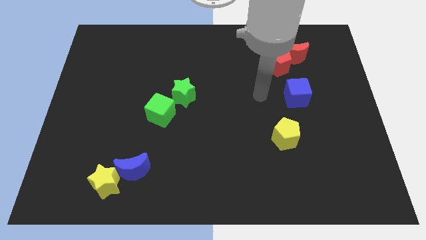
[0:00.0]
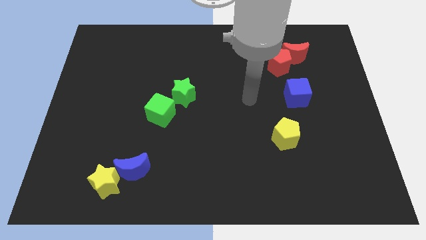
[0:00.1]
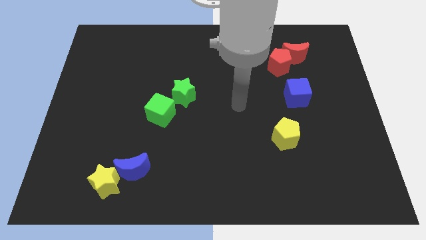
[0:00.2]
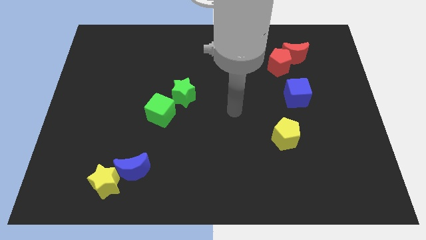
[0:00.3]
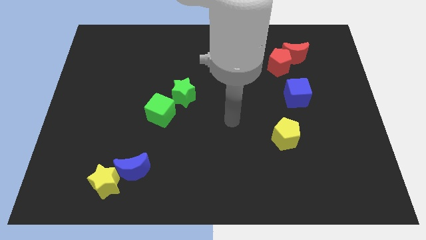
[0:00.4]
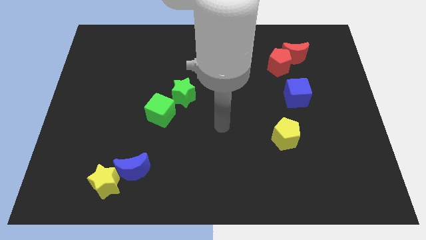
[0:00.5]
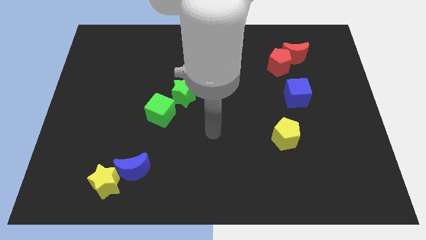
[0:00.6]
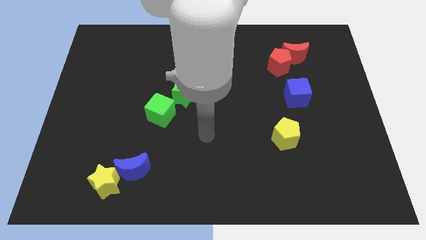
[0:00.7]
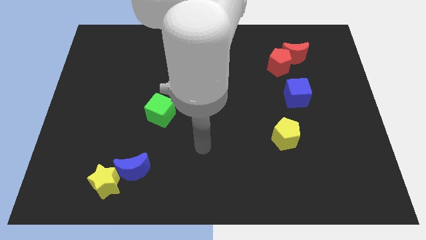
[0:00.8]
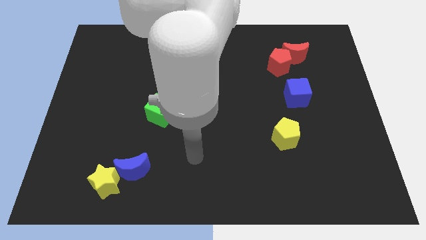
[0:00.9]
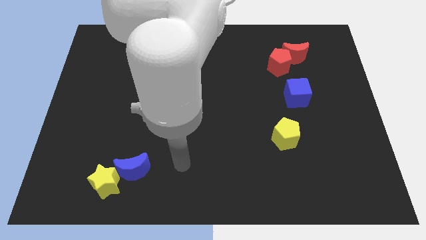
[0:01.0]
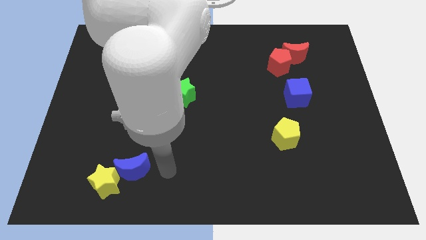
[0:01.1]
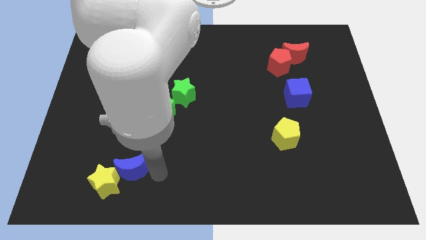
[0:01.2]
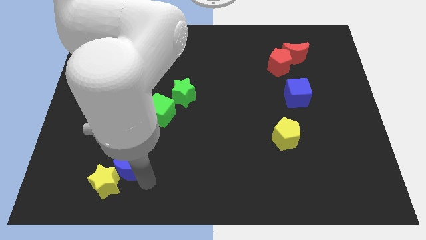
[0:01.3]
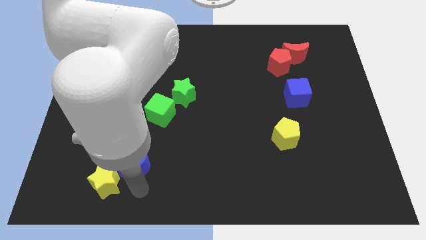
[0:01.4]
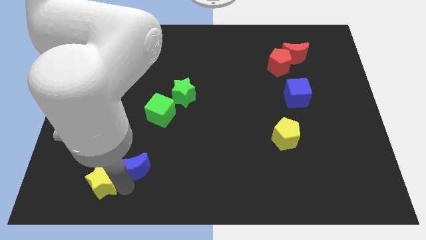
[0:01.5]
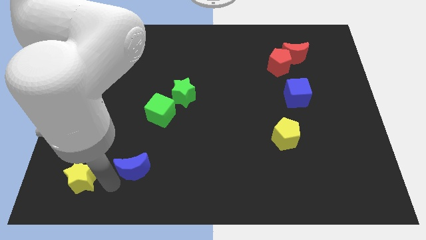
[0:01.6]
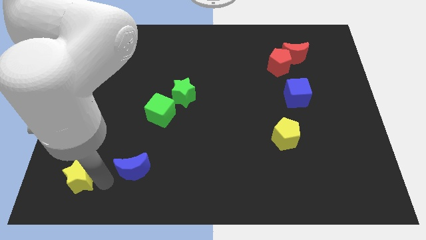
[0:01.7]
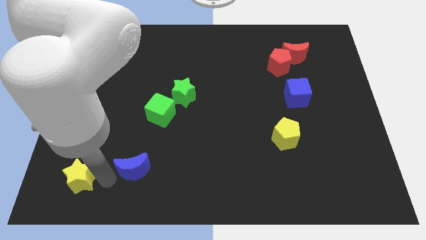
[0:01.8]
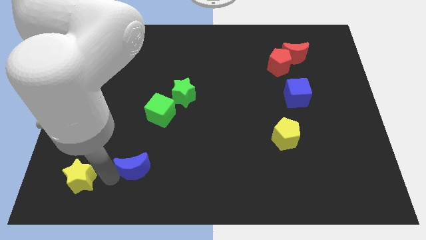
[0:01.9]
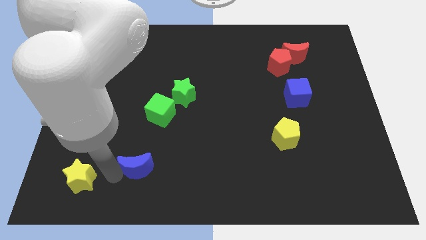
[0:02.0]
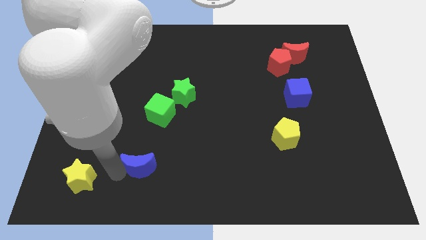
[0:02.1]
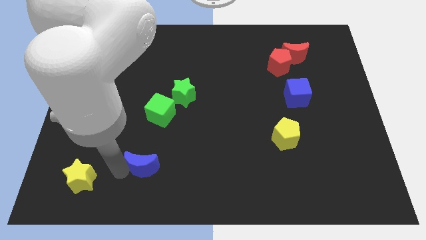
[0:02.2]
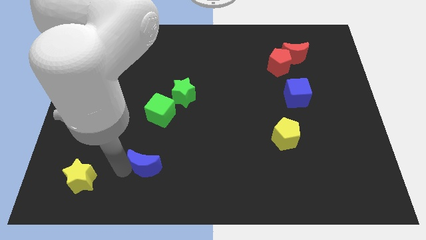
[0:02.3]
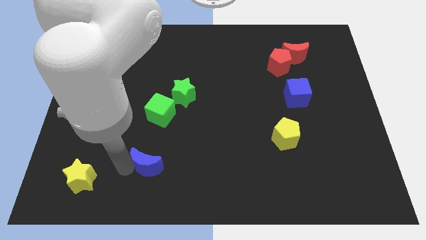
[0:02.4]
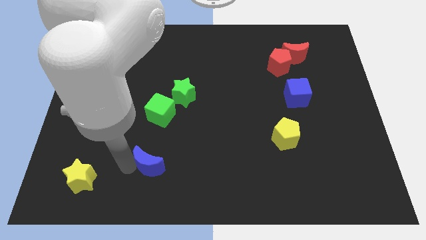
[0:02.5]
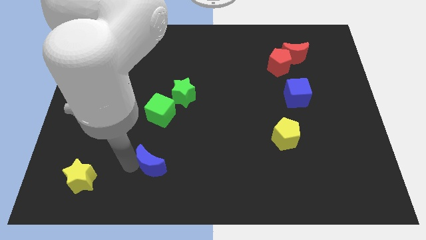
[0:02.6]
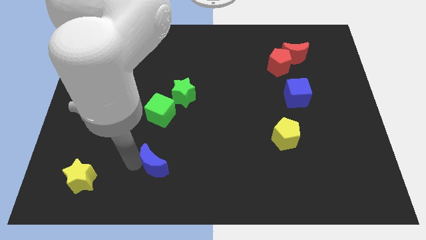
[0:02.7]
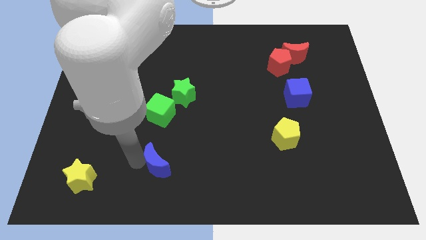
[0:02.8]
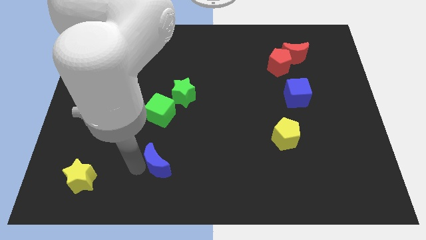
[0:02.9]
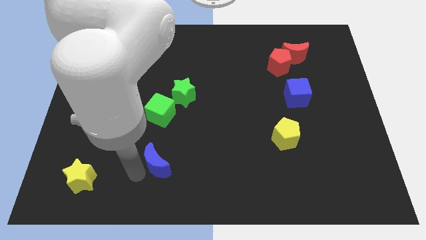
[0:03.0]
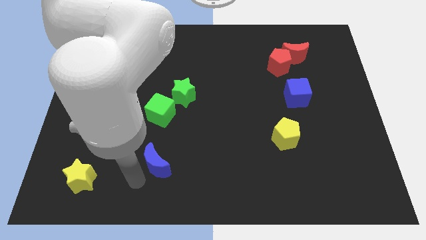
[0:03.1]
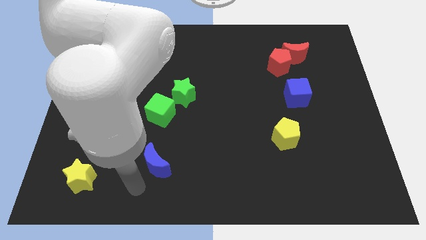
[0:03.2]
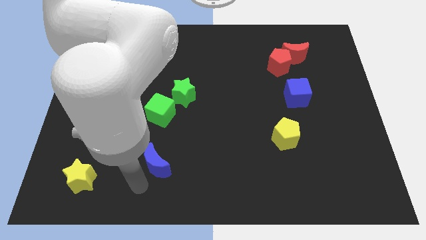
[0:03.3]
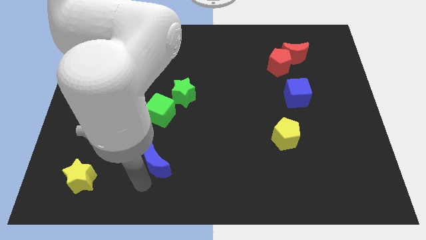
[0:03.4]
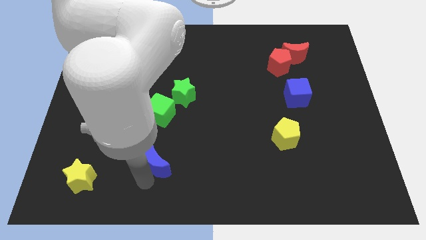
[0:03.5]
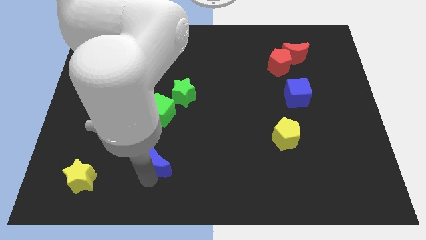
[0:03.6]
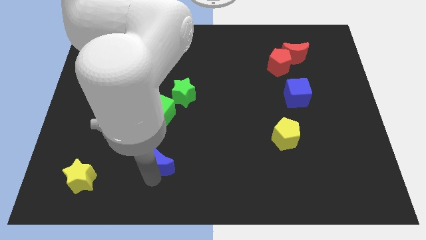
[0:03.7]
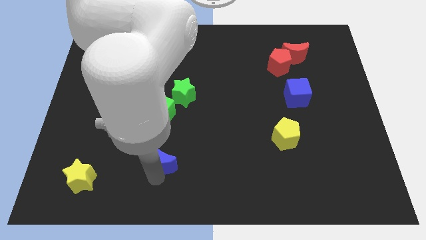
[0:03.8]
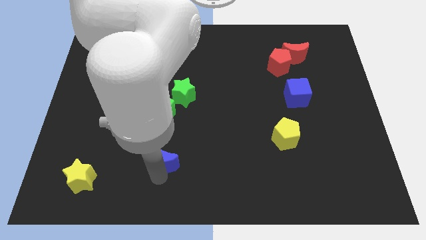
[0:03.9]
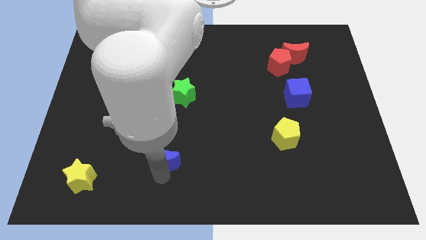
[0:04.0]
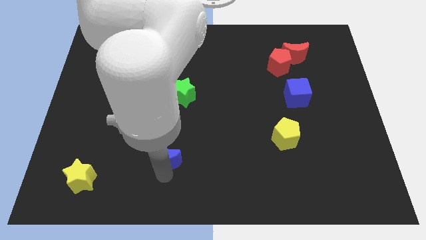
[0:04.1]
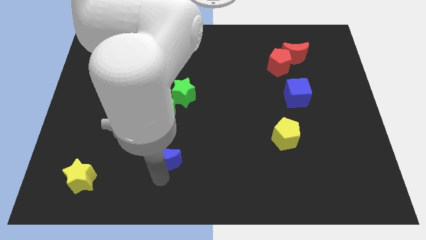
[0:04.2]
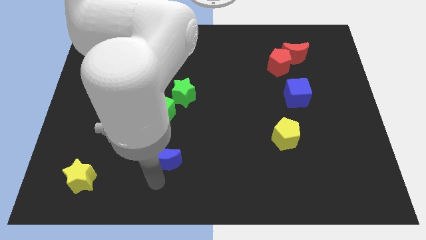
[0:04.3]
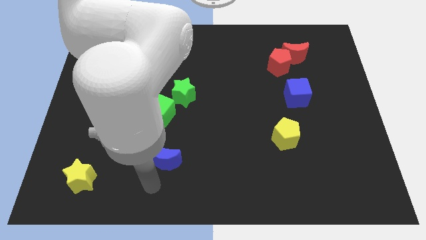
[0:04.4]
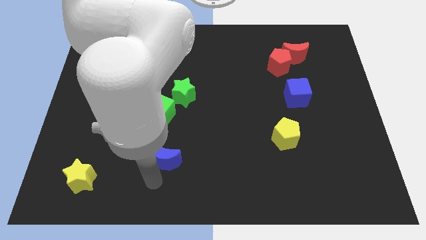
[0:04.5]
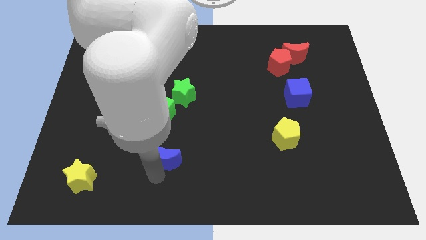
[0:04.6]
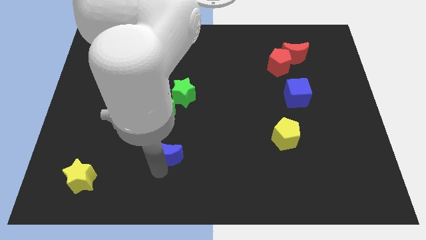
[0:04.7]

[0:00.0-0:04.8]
slide the blue moon up and then to the right a bit

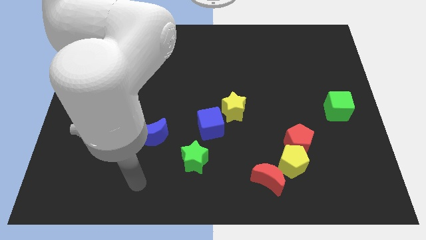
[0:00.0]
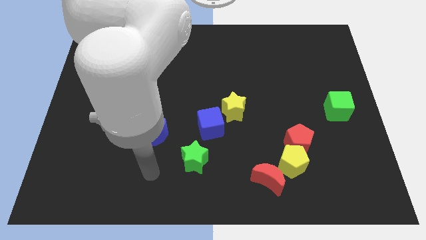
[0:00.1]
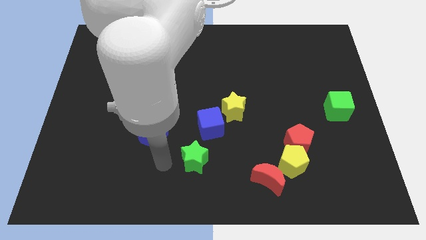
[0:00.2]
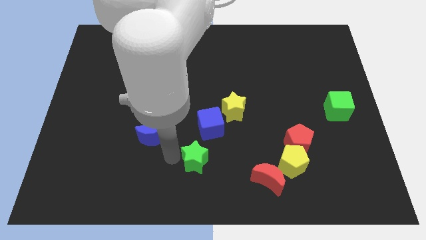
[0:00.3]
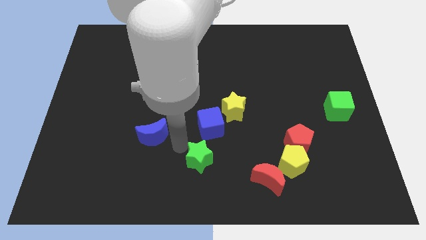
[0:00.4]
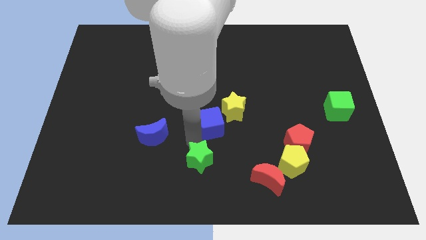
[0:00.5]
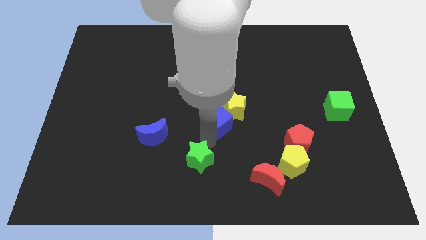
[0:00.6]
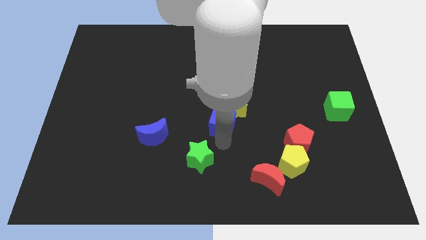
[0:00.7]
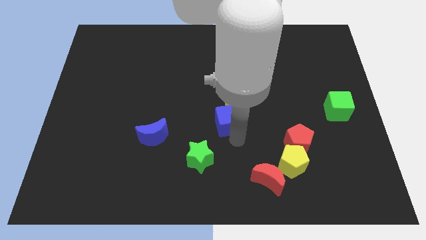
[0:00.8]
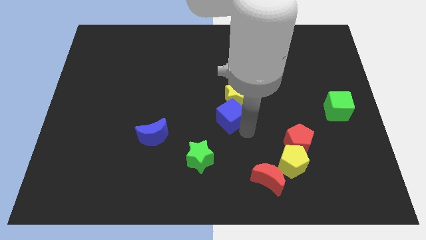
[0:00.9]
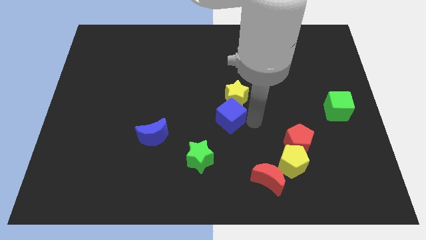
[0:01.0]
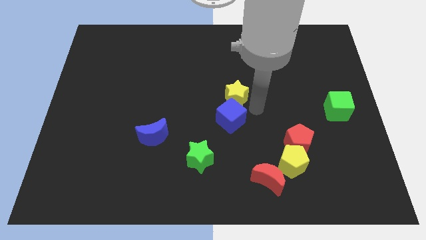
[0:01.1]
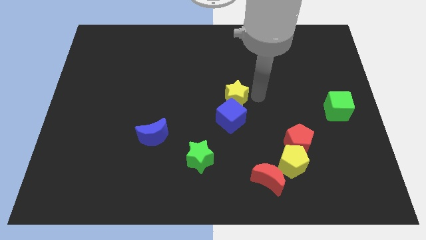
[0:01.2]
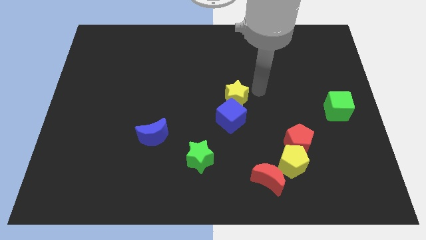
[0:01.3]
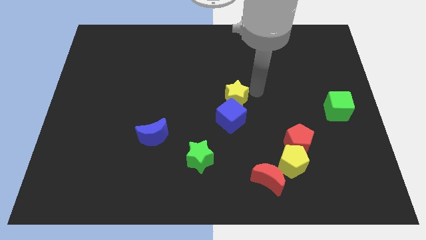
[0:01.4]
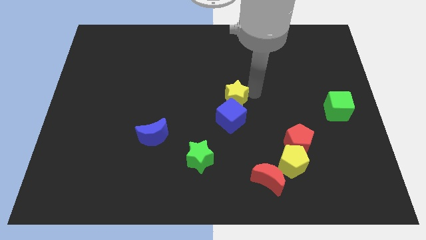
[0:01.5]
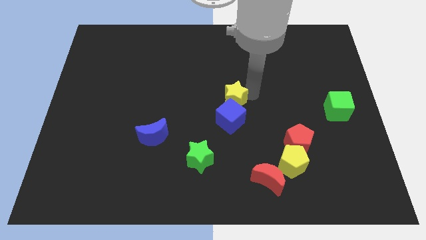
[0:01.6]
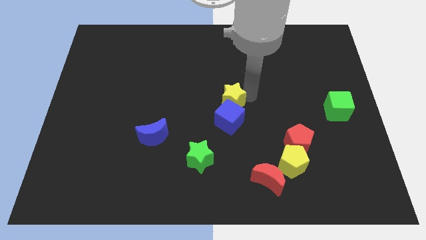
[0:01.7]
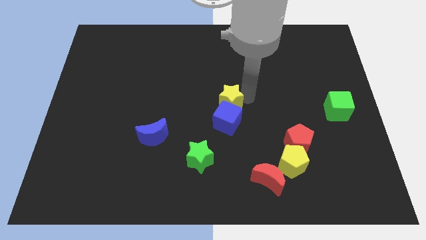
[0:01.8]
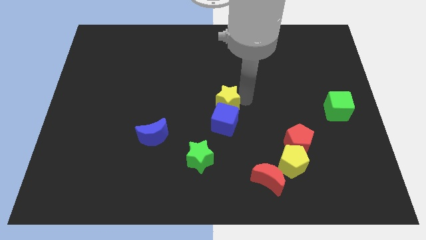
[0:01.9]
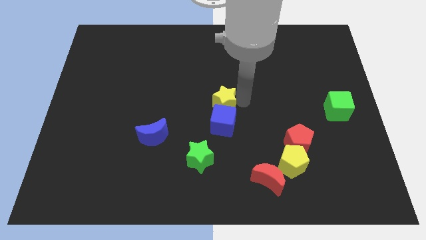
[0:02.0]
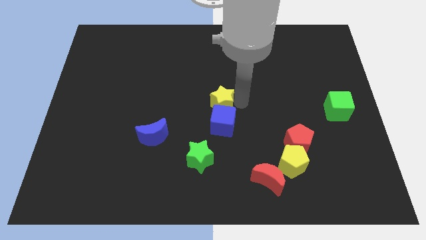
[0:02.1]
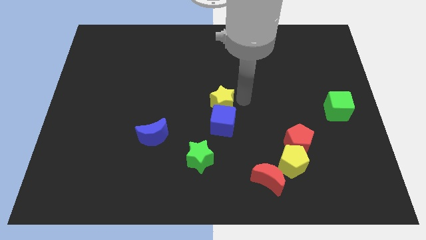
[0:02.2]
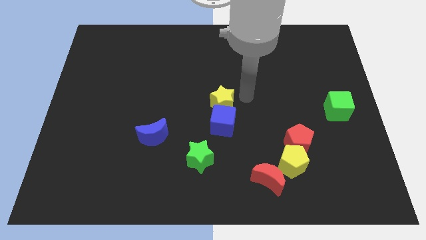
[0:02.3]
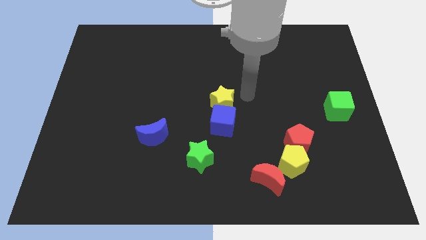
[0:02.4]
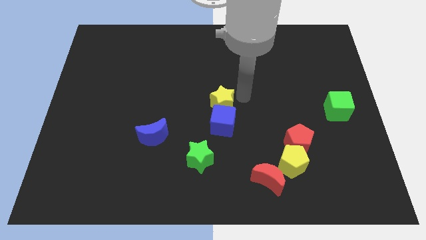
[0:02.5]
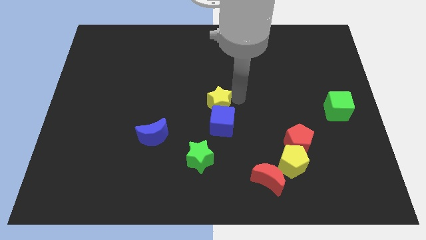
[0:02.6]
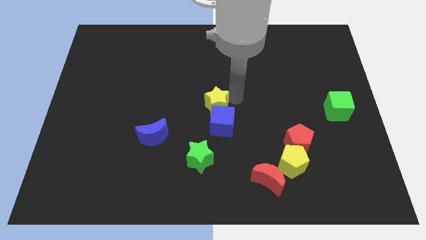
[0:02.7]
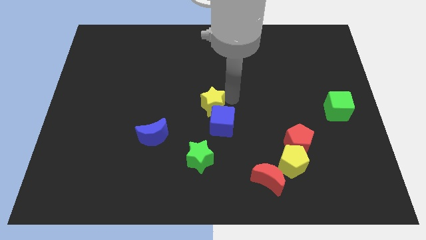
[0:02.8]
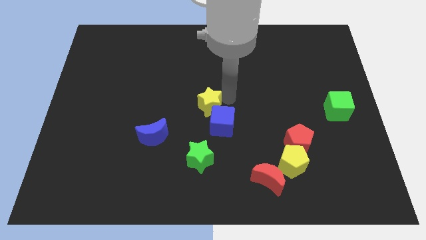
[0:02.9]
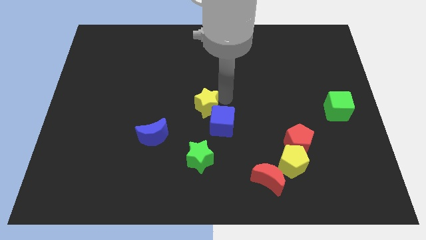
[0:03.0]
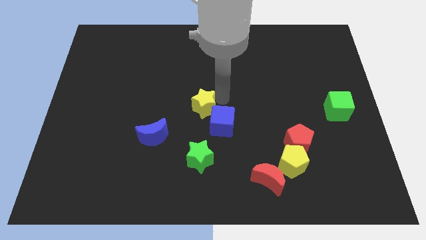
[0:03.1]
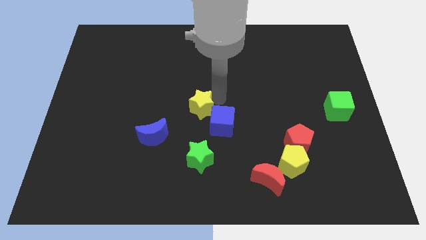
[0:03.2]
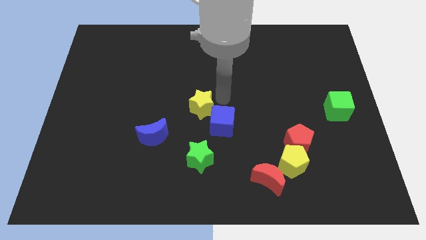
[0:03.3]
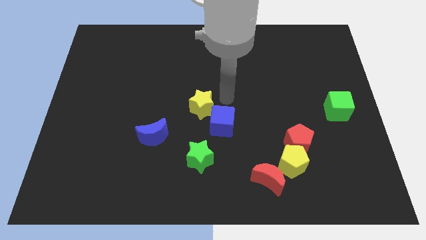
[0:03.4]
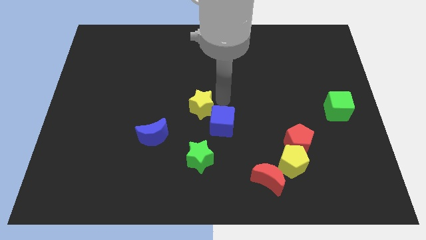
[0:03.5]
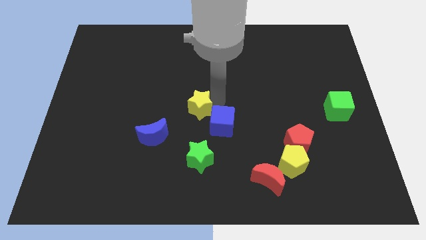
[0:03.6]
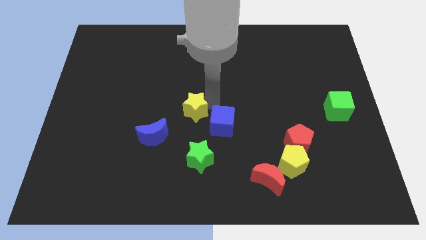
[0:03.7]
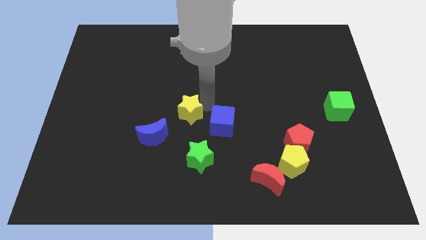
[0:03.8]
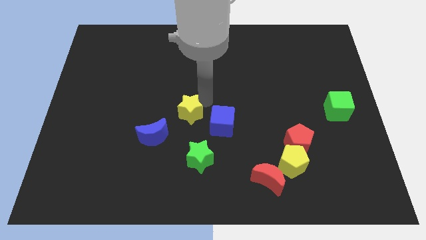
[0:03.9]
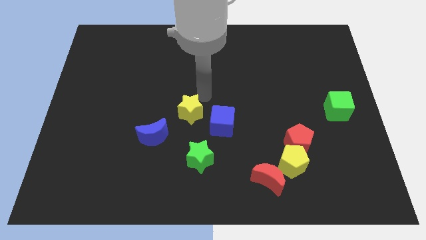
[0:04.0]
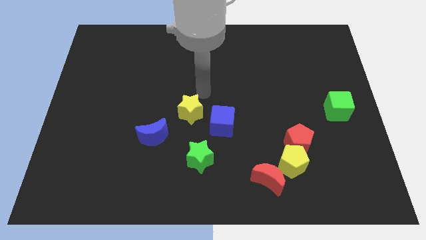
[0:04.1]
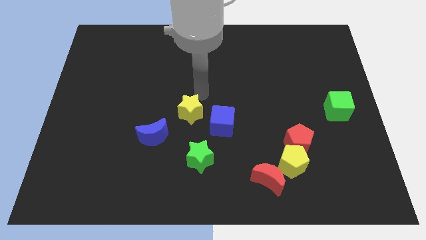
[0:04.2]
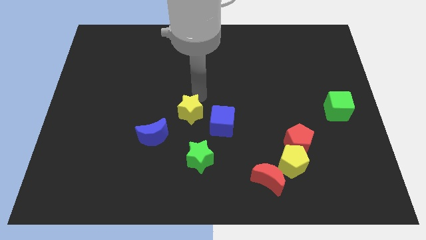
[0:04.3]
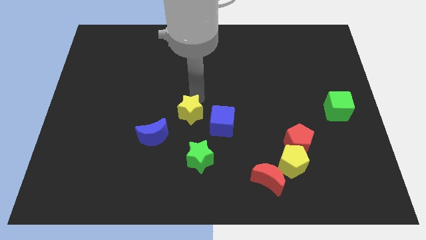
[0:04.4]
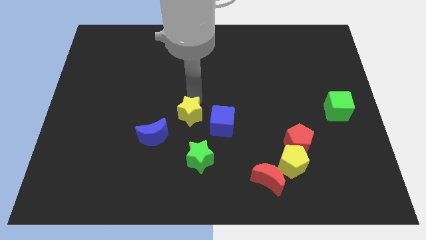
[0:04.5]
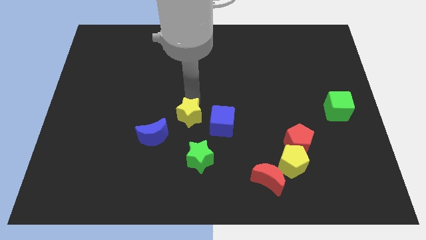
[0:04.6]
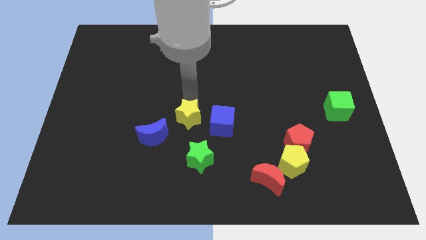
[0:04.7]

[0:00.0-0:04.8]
move the yellow star a little bit downwards and to the left
